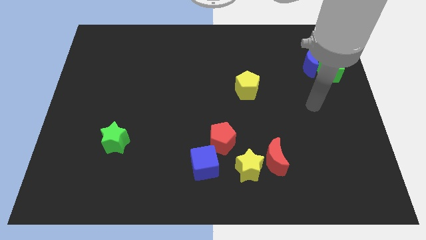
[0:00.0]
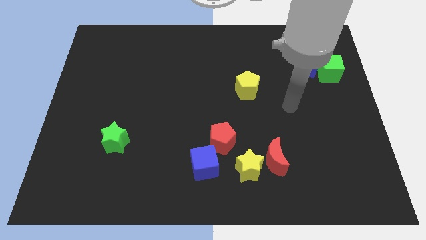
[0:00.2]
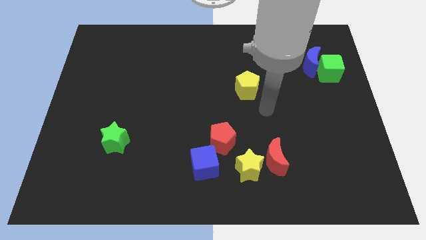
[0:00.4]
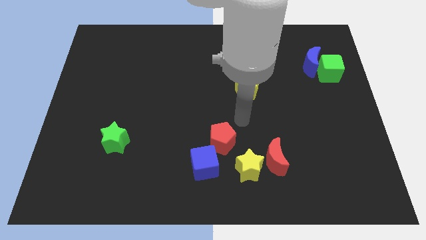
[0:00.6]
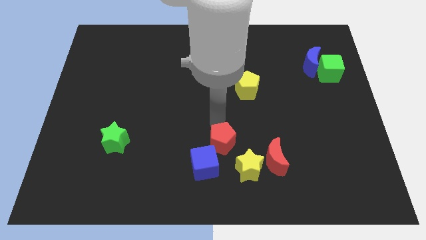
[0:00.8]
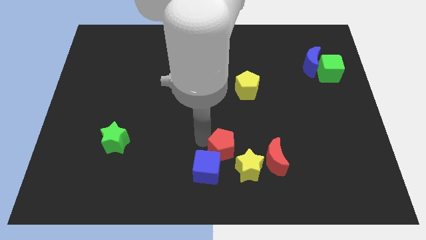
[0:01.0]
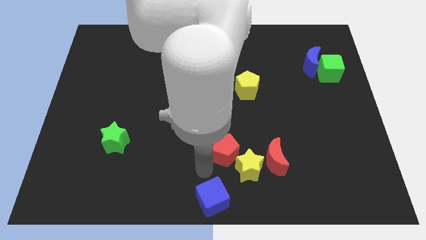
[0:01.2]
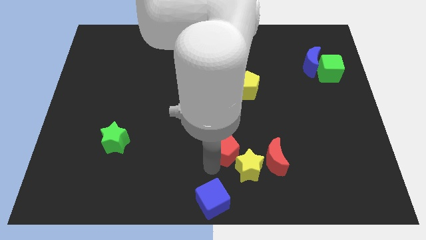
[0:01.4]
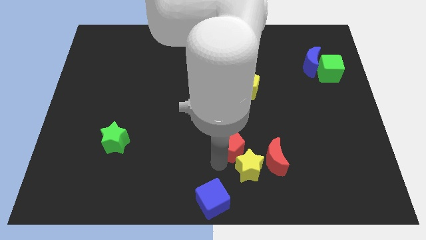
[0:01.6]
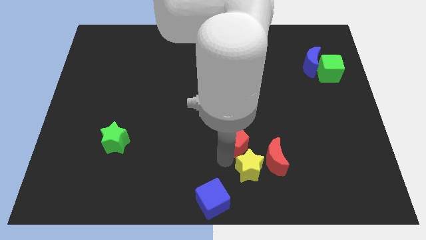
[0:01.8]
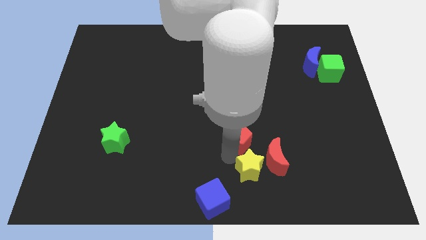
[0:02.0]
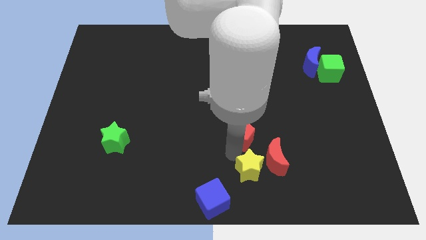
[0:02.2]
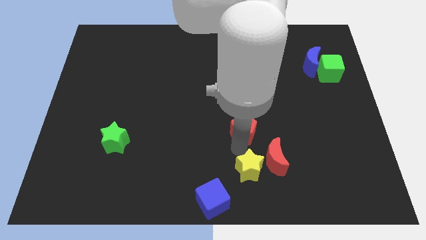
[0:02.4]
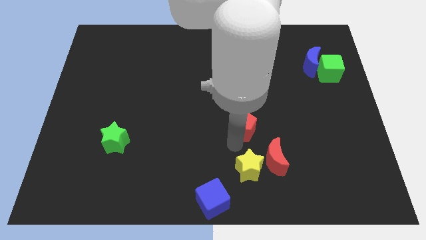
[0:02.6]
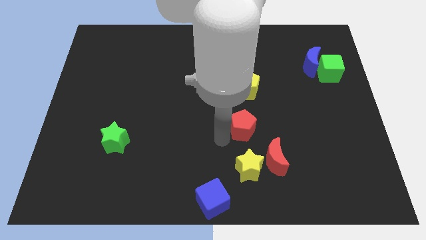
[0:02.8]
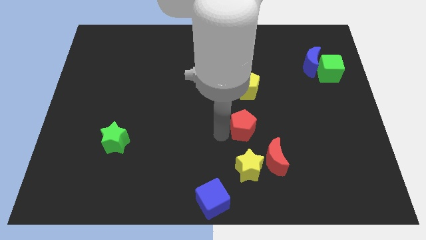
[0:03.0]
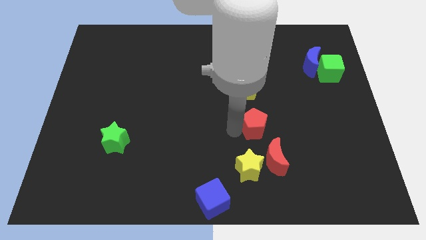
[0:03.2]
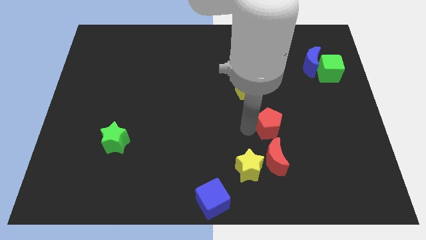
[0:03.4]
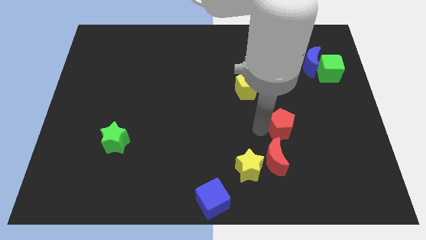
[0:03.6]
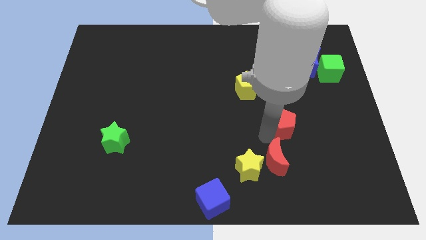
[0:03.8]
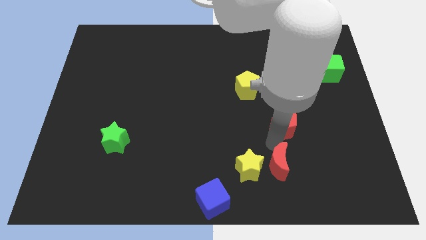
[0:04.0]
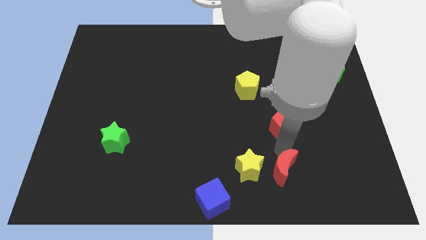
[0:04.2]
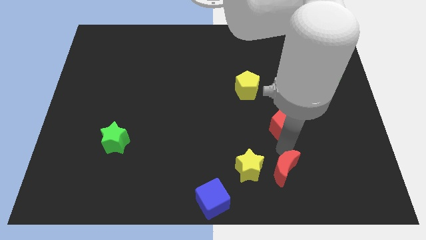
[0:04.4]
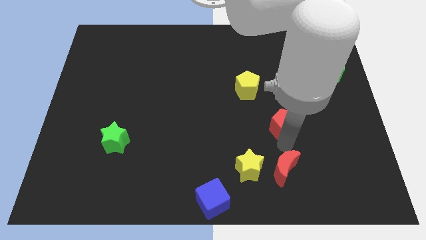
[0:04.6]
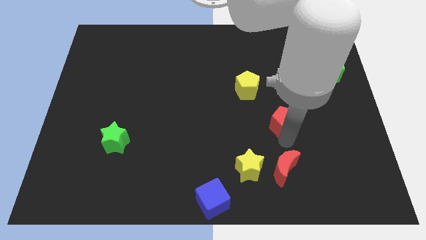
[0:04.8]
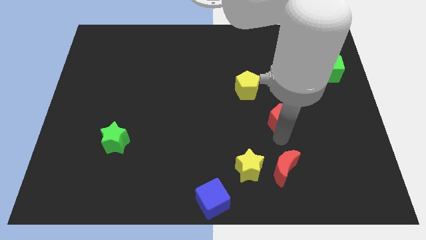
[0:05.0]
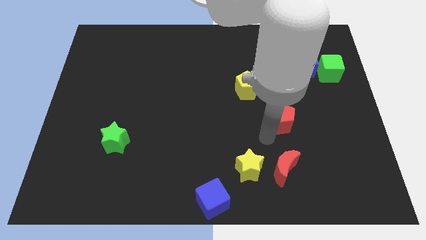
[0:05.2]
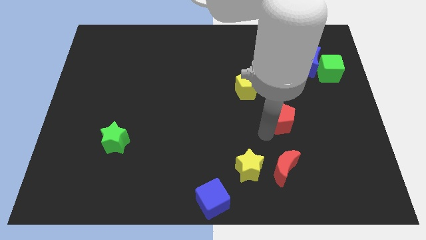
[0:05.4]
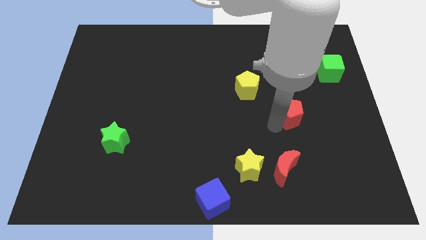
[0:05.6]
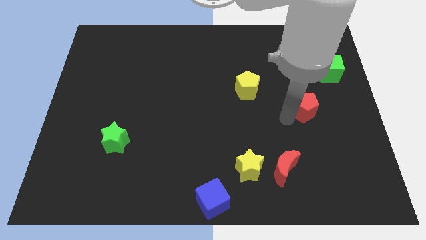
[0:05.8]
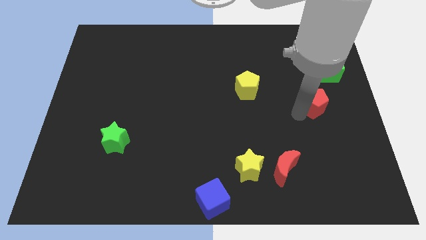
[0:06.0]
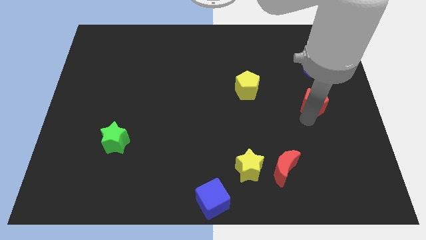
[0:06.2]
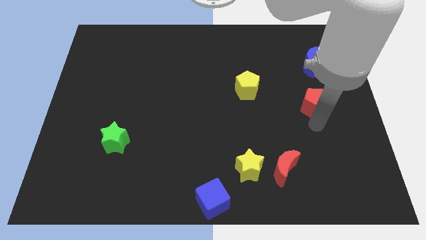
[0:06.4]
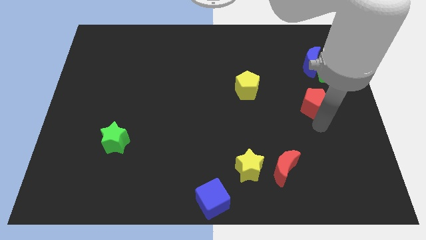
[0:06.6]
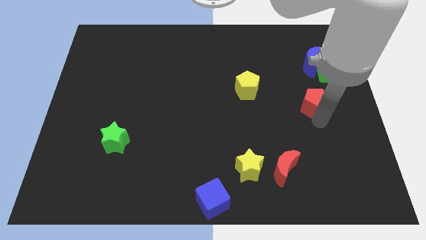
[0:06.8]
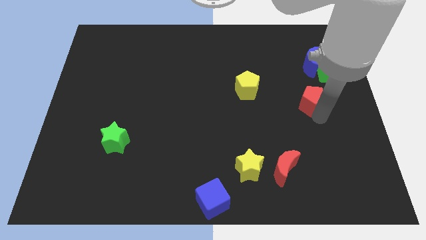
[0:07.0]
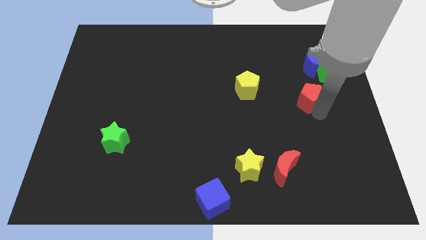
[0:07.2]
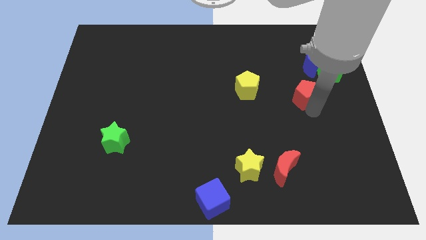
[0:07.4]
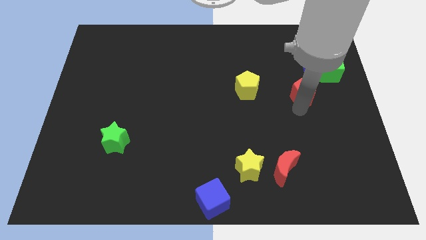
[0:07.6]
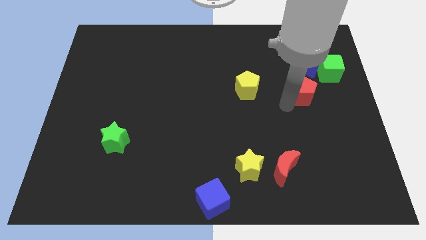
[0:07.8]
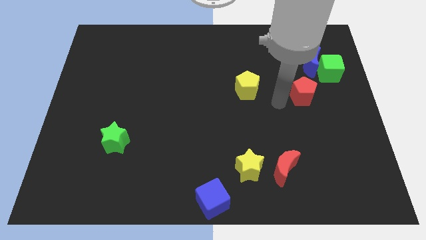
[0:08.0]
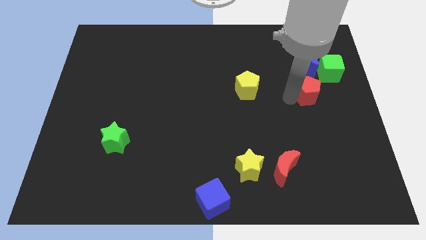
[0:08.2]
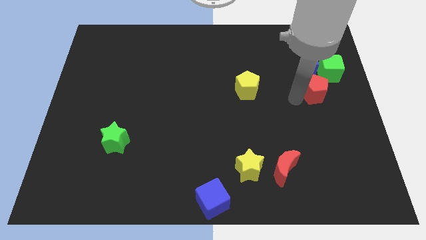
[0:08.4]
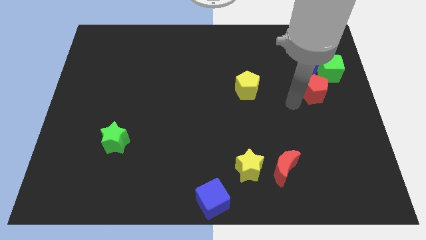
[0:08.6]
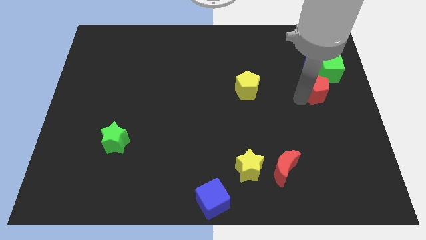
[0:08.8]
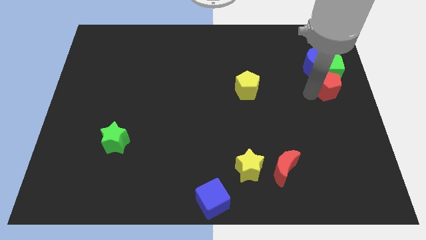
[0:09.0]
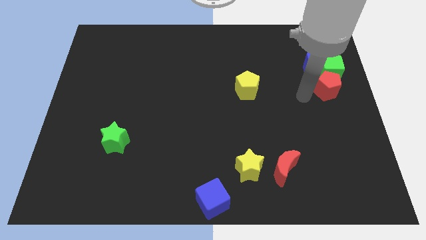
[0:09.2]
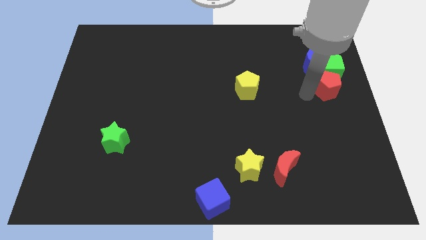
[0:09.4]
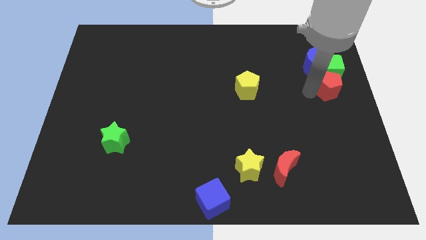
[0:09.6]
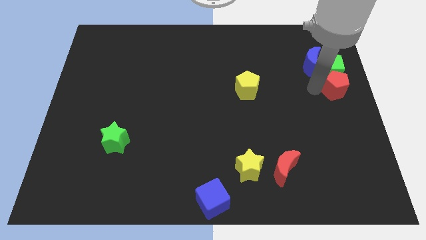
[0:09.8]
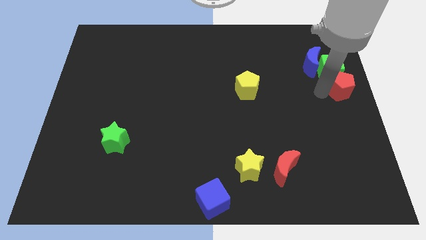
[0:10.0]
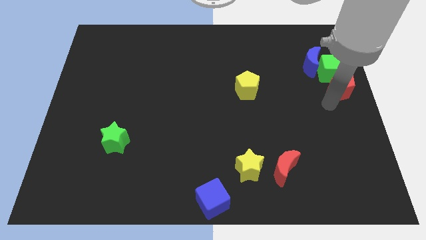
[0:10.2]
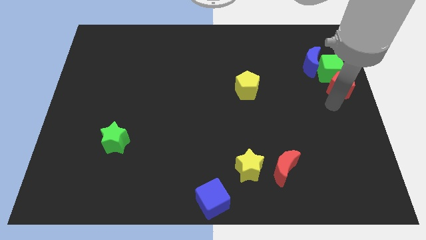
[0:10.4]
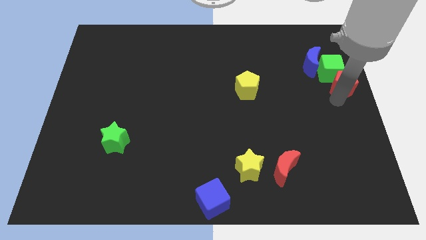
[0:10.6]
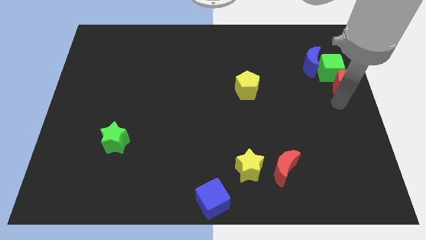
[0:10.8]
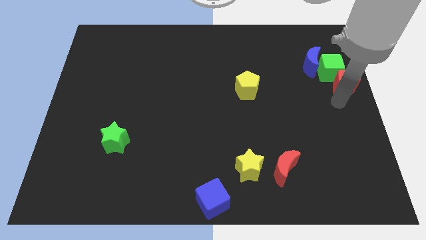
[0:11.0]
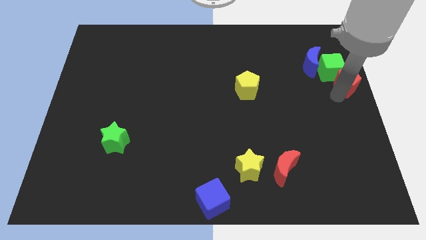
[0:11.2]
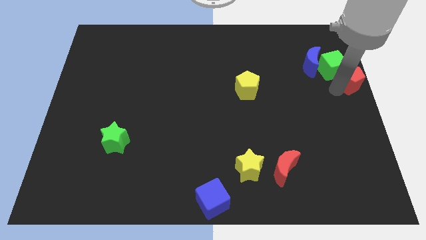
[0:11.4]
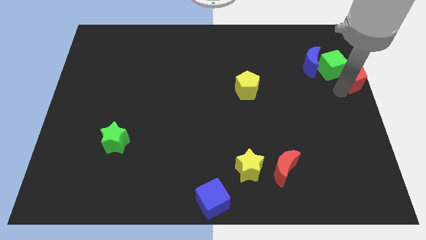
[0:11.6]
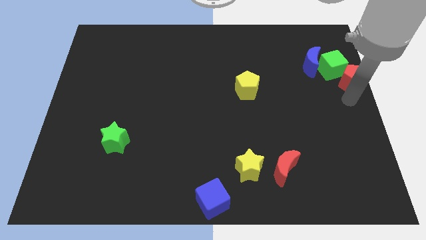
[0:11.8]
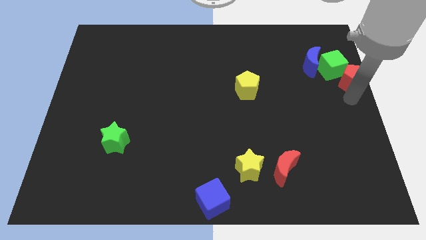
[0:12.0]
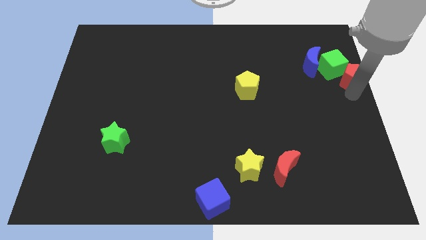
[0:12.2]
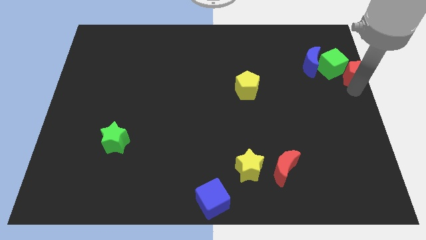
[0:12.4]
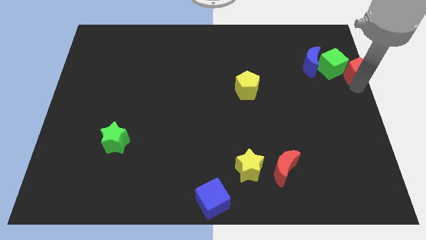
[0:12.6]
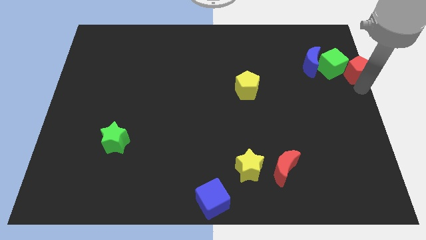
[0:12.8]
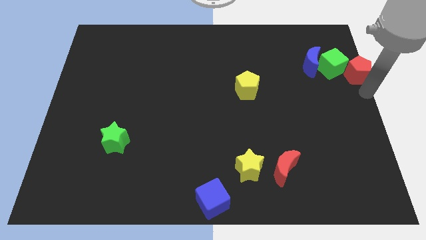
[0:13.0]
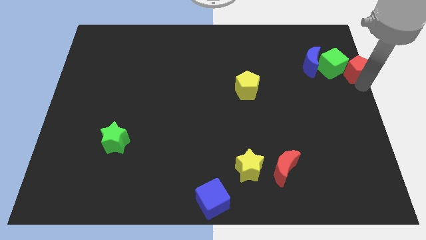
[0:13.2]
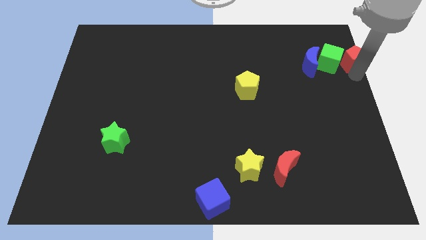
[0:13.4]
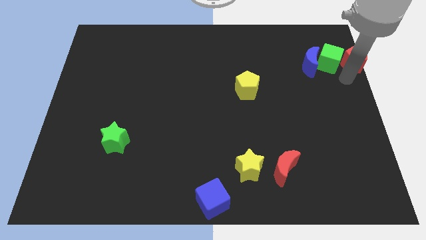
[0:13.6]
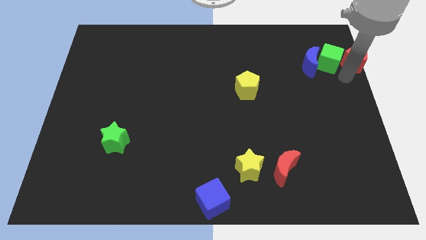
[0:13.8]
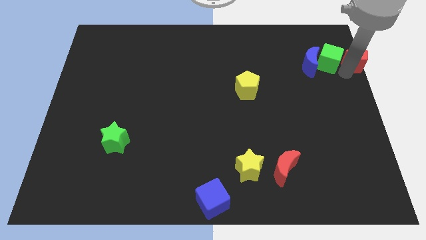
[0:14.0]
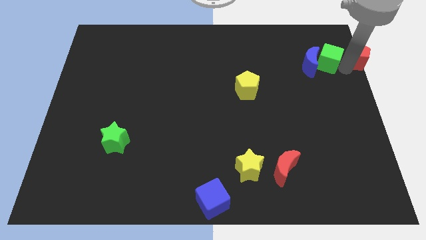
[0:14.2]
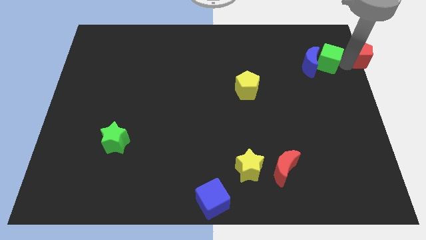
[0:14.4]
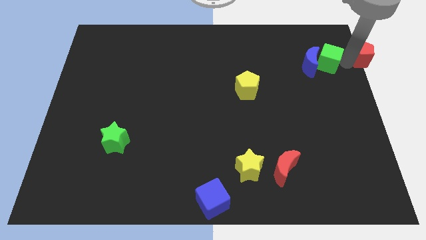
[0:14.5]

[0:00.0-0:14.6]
move the red pentagon to the top right corner
